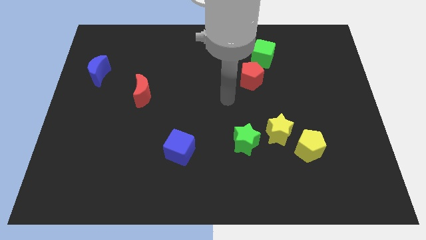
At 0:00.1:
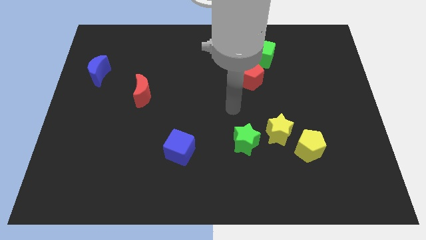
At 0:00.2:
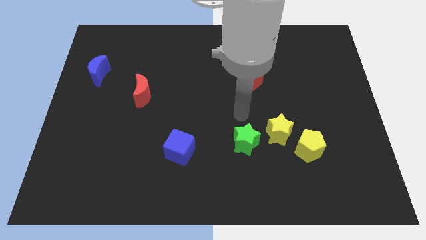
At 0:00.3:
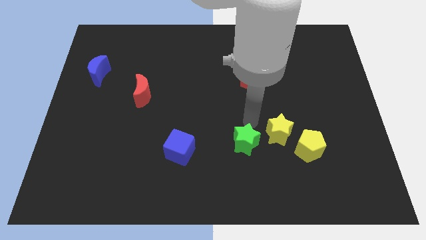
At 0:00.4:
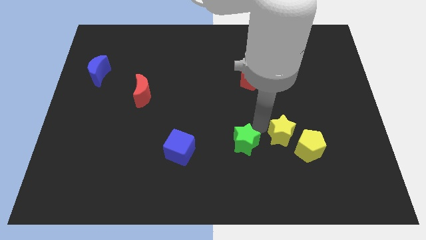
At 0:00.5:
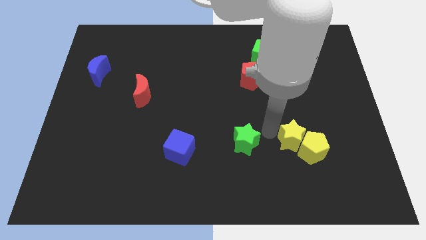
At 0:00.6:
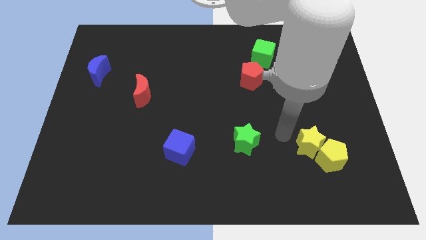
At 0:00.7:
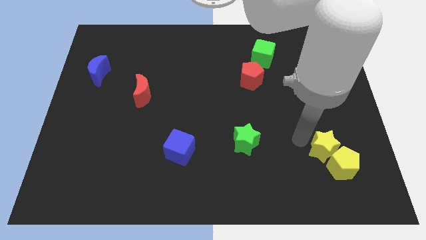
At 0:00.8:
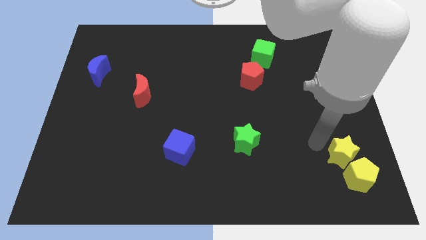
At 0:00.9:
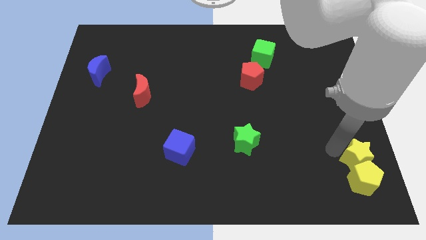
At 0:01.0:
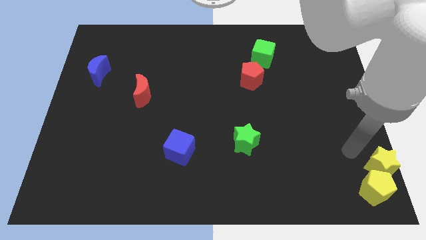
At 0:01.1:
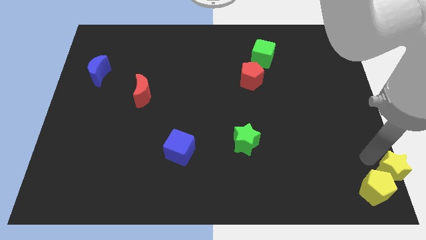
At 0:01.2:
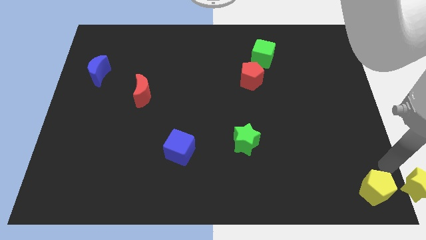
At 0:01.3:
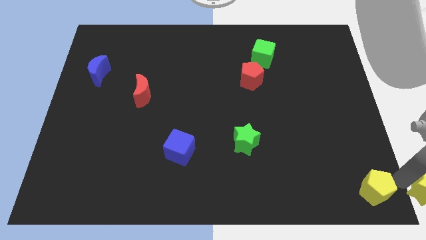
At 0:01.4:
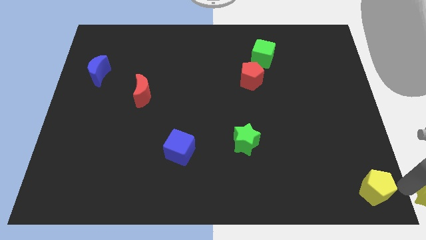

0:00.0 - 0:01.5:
pull the yellow pentagon apart from the yellow star

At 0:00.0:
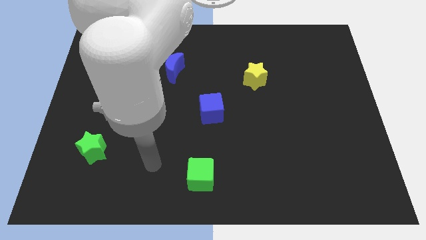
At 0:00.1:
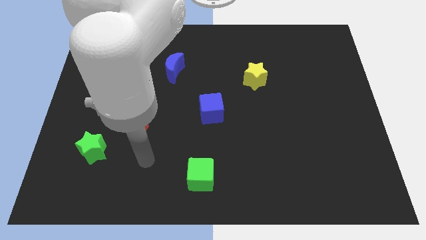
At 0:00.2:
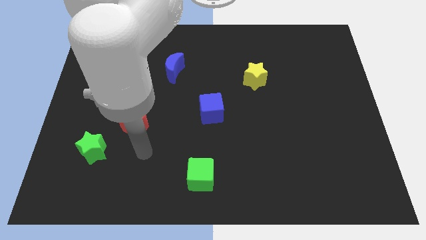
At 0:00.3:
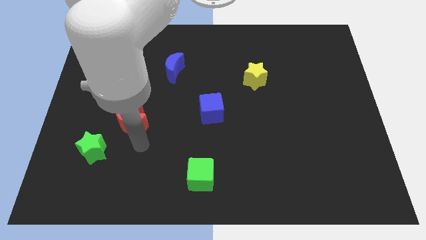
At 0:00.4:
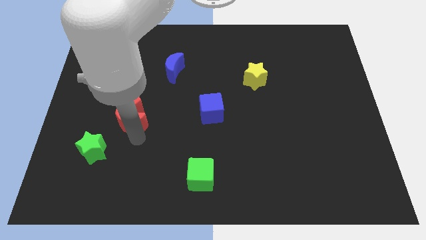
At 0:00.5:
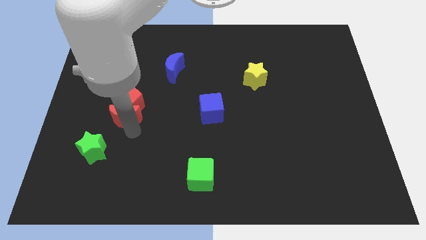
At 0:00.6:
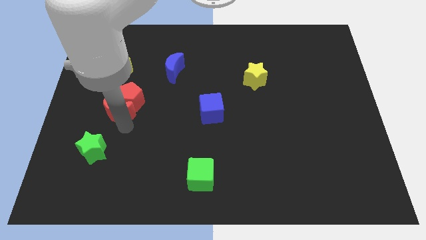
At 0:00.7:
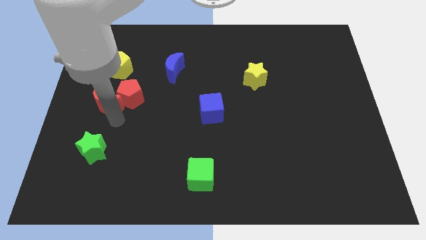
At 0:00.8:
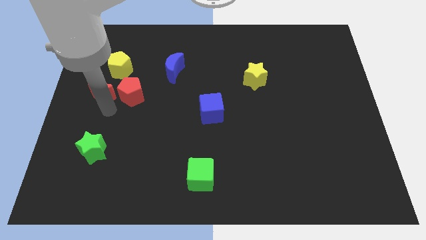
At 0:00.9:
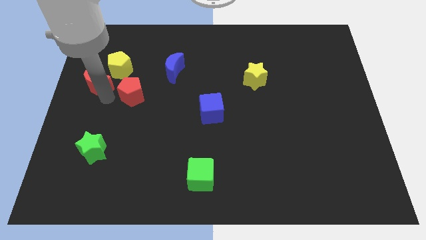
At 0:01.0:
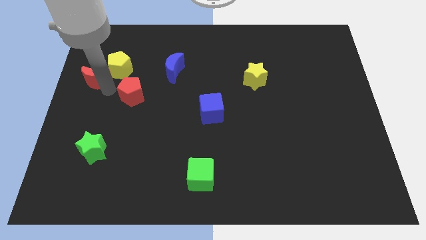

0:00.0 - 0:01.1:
move the red pentagon away from the red moon

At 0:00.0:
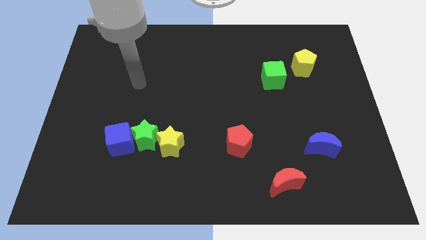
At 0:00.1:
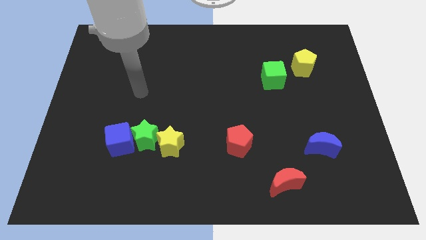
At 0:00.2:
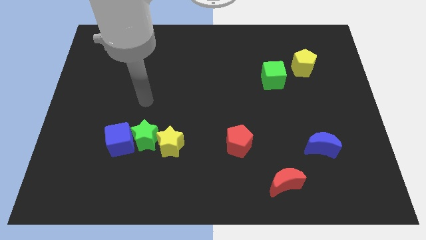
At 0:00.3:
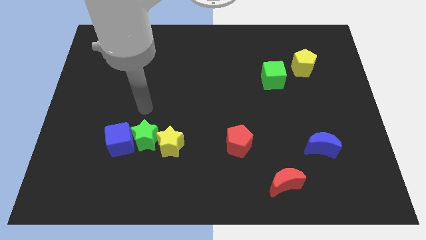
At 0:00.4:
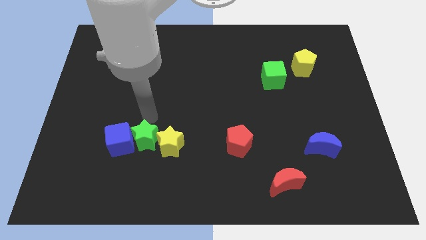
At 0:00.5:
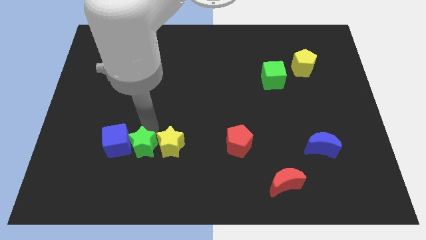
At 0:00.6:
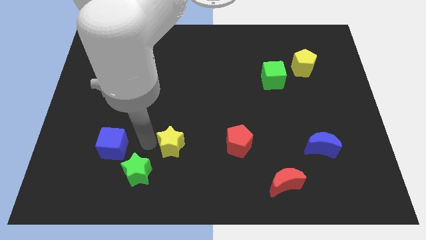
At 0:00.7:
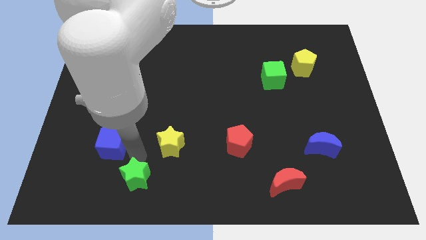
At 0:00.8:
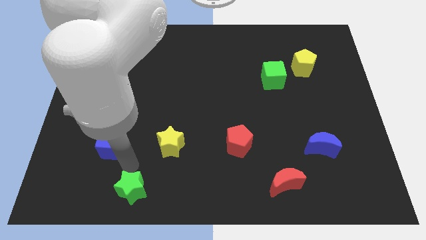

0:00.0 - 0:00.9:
pull the blue cube apart from the green star

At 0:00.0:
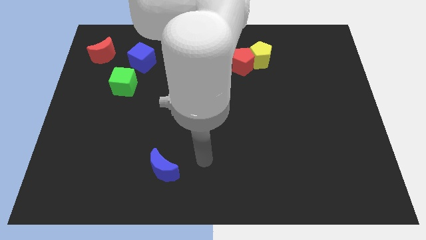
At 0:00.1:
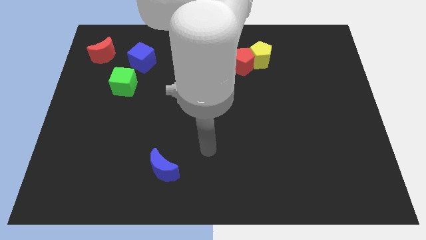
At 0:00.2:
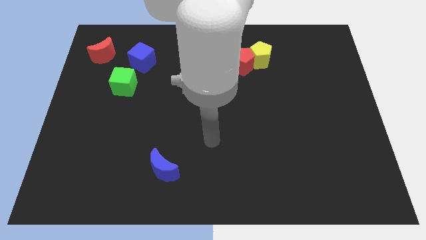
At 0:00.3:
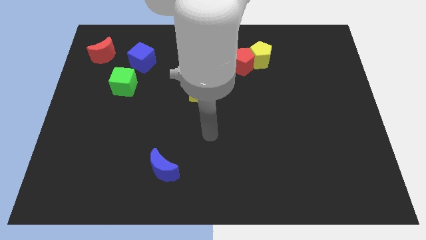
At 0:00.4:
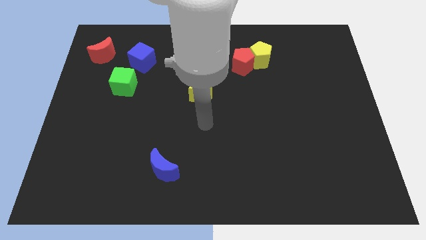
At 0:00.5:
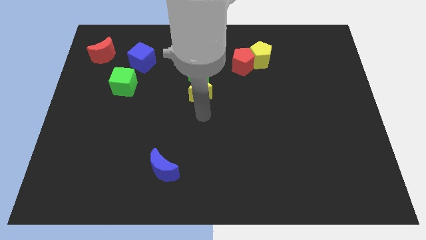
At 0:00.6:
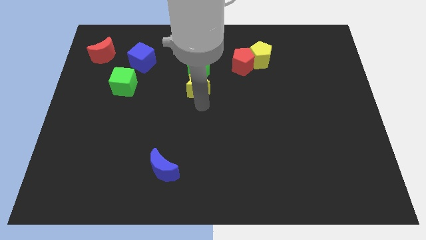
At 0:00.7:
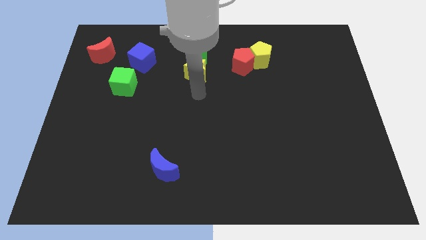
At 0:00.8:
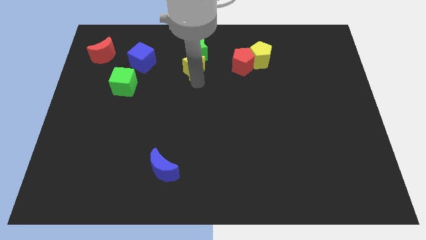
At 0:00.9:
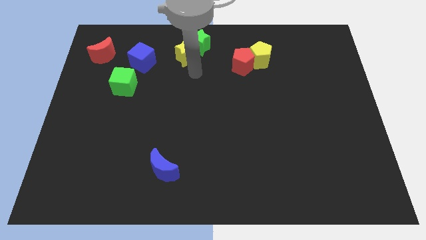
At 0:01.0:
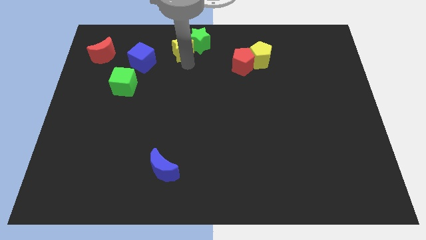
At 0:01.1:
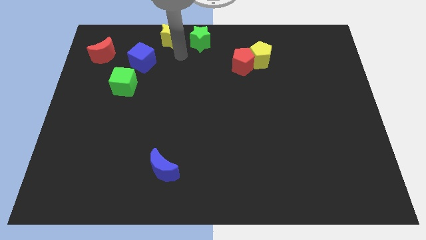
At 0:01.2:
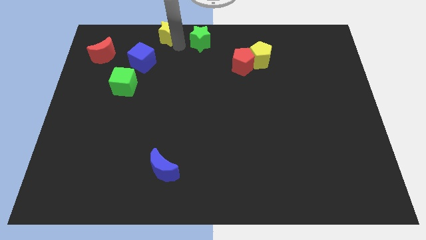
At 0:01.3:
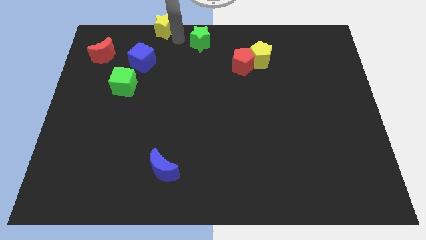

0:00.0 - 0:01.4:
pull the green star apart from the yellow star

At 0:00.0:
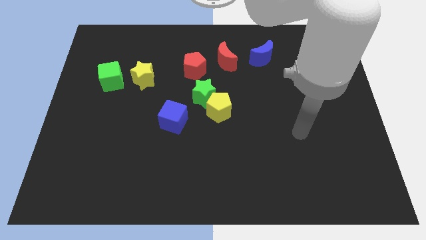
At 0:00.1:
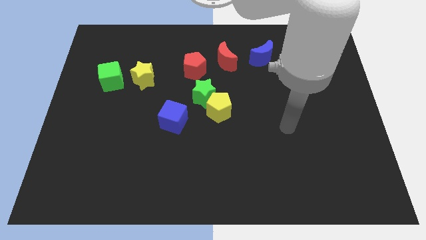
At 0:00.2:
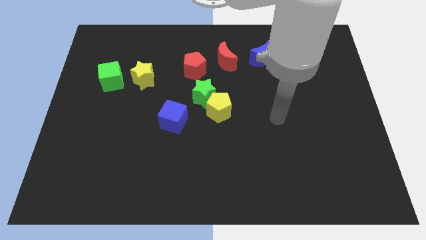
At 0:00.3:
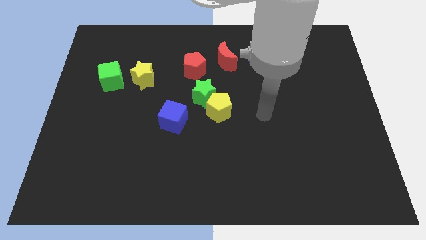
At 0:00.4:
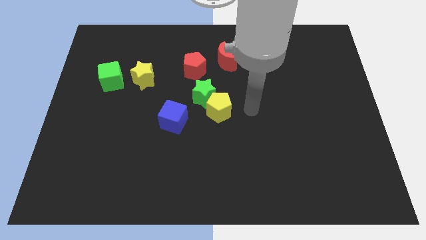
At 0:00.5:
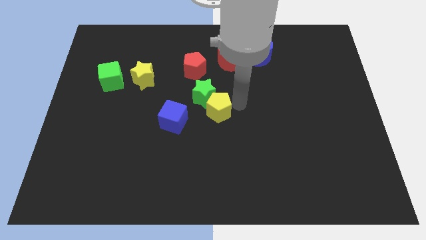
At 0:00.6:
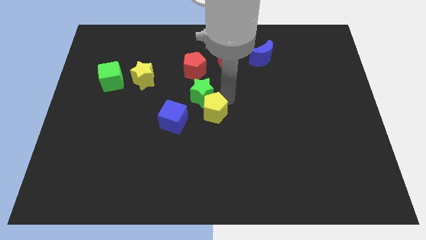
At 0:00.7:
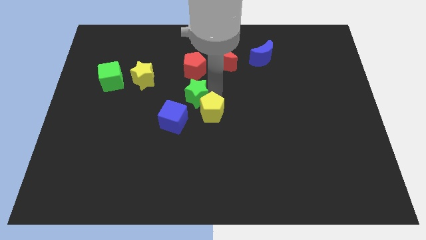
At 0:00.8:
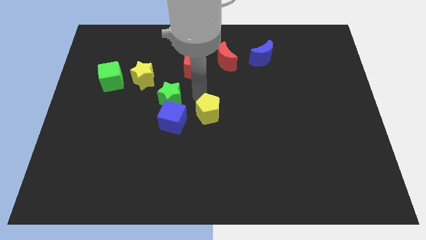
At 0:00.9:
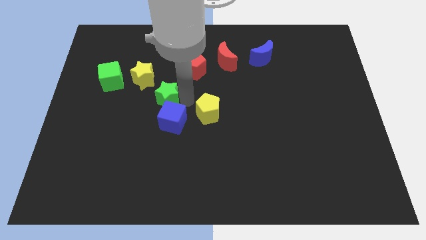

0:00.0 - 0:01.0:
separate the yellow pentagon from the green star

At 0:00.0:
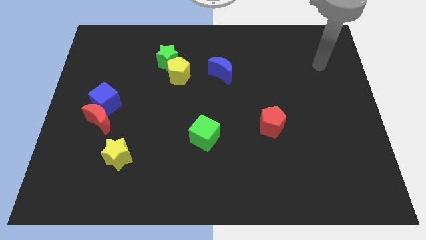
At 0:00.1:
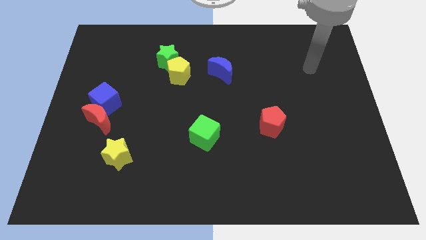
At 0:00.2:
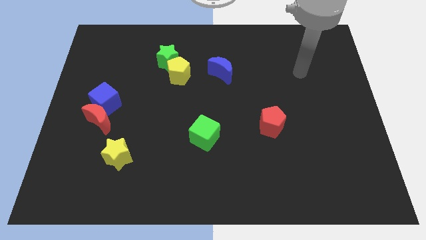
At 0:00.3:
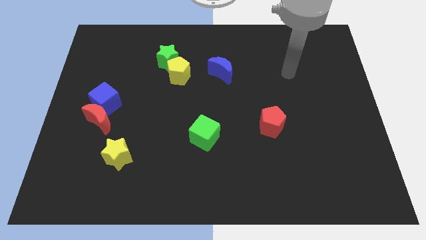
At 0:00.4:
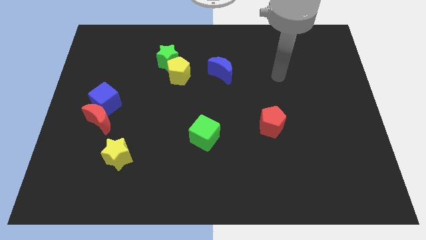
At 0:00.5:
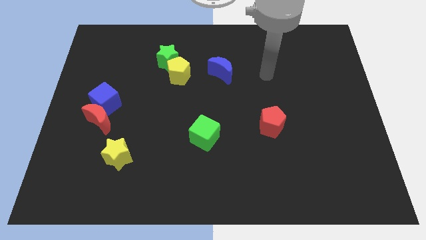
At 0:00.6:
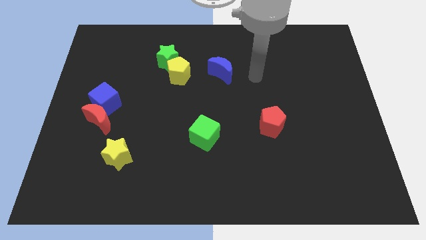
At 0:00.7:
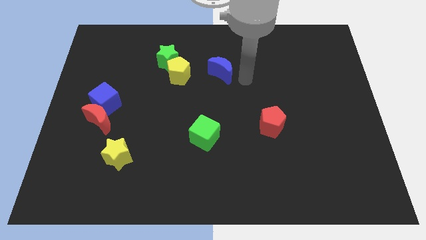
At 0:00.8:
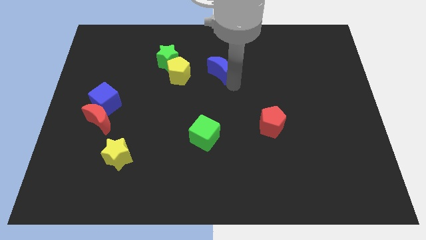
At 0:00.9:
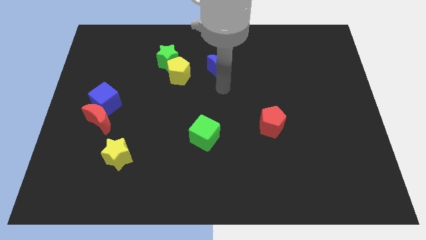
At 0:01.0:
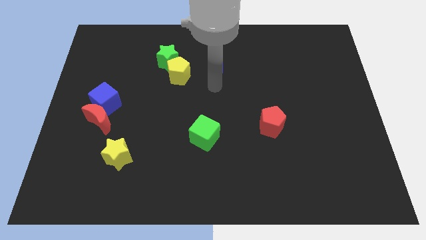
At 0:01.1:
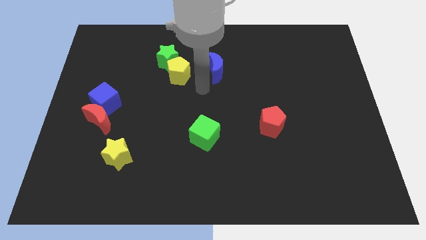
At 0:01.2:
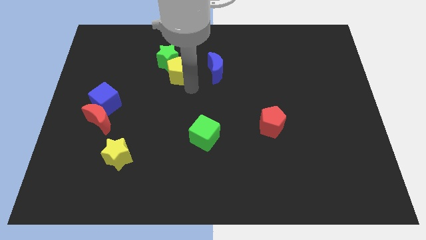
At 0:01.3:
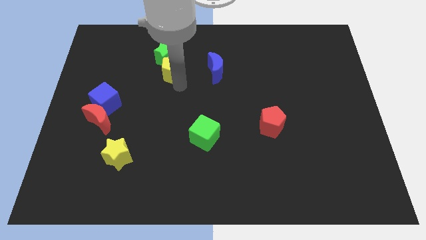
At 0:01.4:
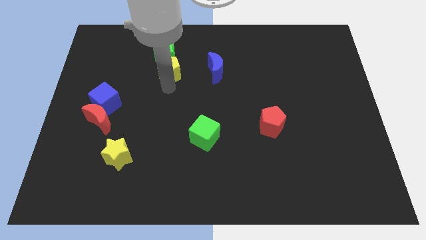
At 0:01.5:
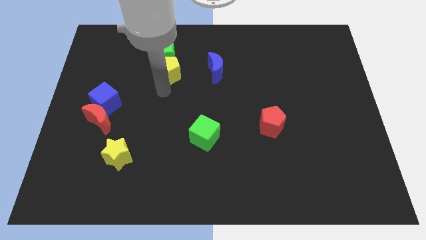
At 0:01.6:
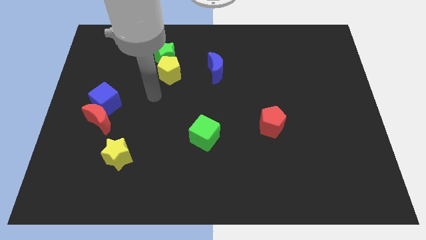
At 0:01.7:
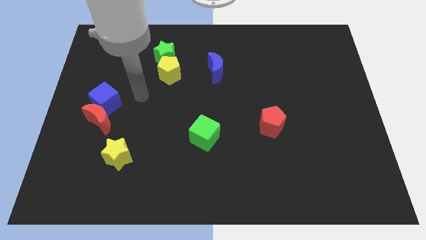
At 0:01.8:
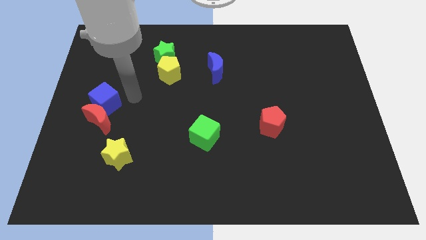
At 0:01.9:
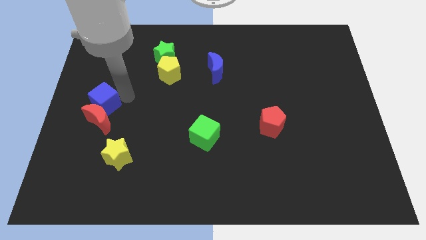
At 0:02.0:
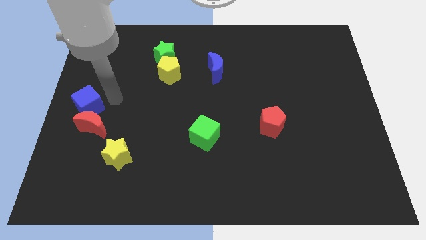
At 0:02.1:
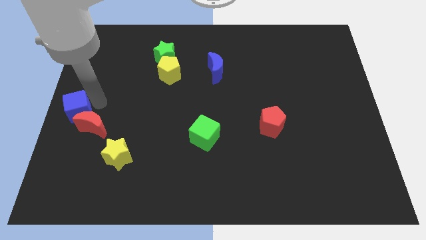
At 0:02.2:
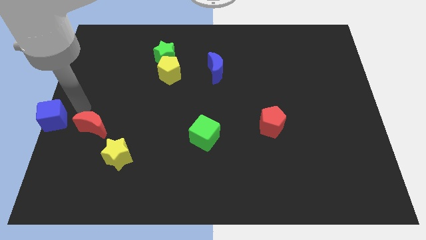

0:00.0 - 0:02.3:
separate the red moon from the blue cube

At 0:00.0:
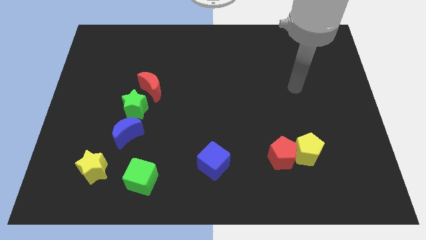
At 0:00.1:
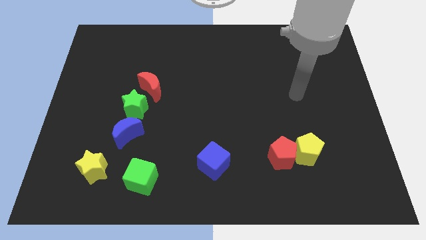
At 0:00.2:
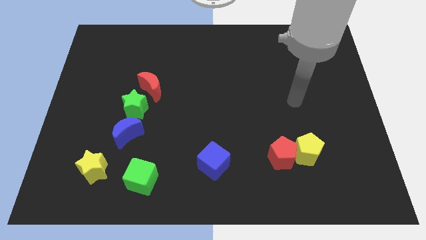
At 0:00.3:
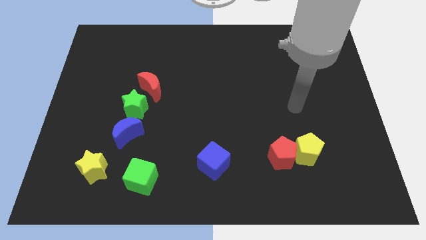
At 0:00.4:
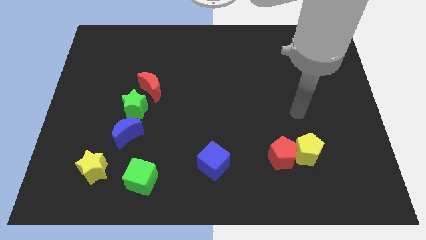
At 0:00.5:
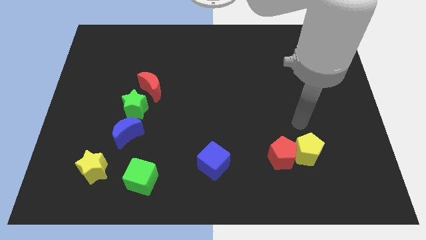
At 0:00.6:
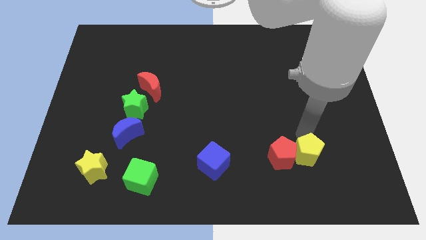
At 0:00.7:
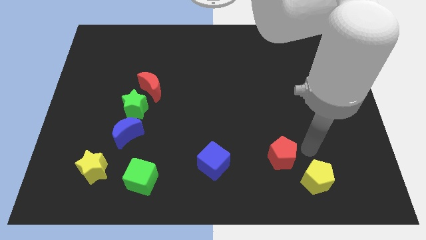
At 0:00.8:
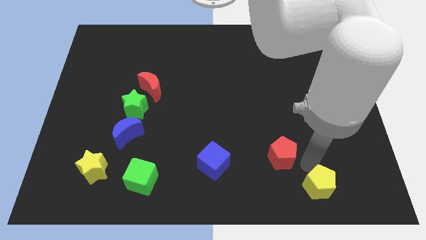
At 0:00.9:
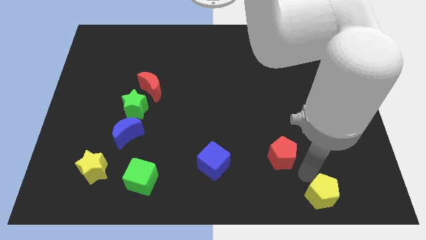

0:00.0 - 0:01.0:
separate the red pentagon from the yellow pentagon

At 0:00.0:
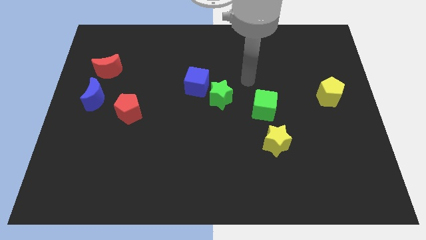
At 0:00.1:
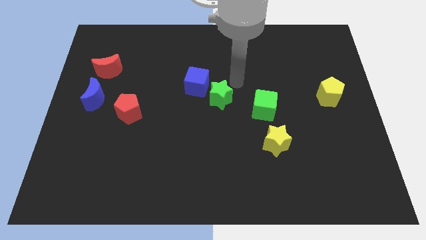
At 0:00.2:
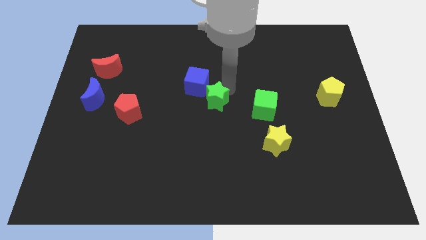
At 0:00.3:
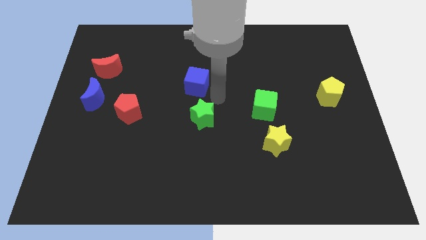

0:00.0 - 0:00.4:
separate the blue cube from the green star
